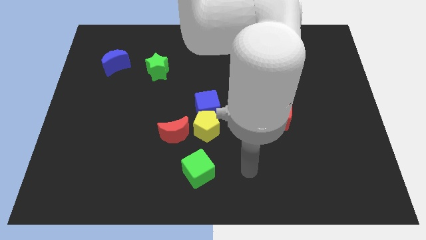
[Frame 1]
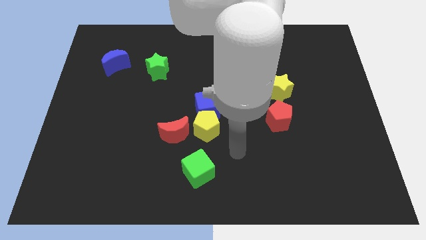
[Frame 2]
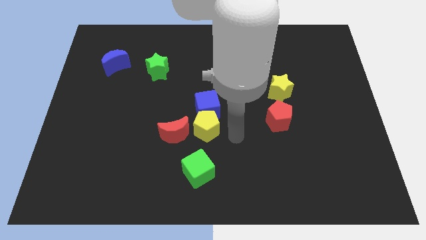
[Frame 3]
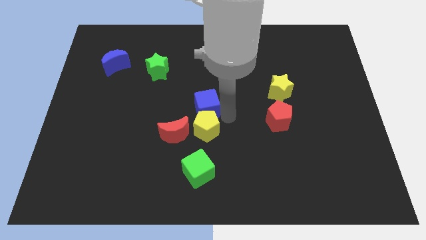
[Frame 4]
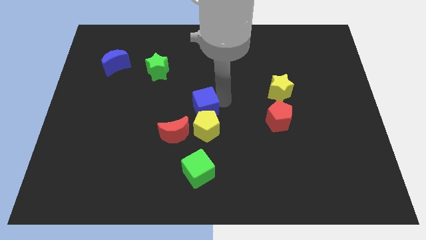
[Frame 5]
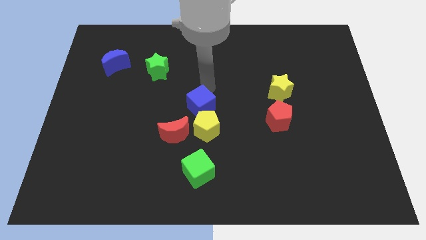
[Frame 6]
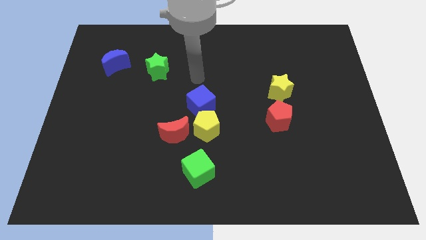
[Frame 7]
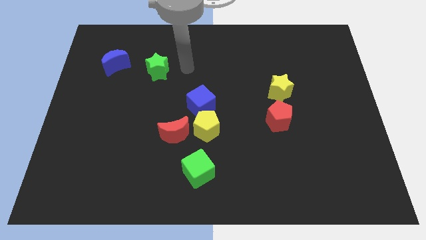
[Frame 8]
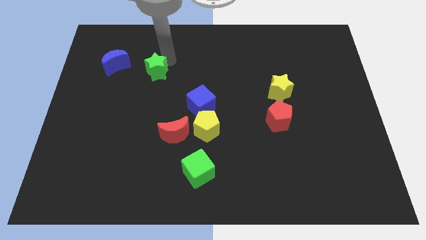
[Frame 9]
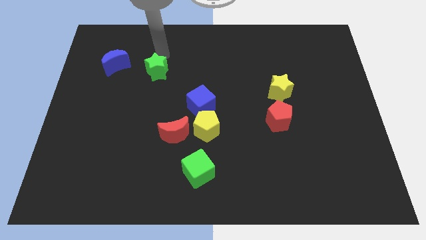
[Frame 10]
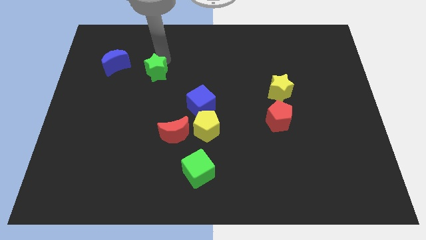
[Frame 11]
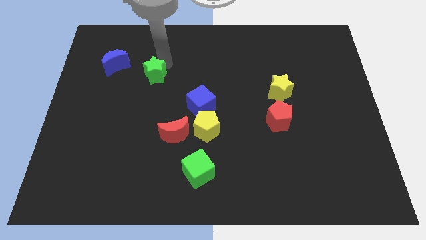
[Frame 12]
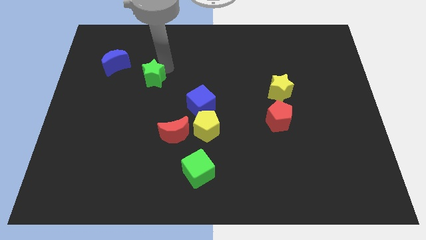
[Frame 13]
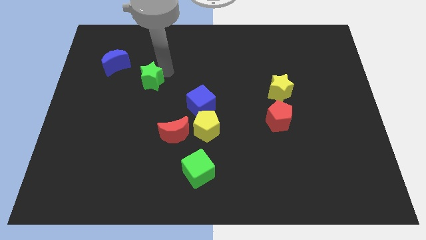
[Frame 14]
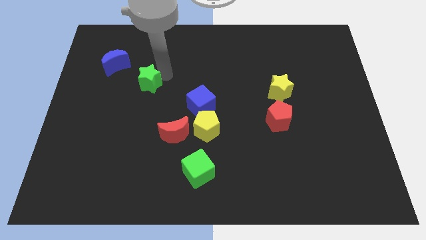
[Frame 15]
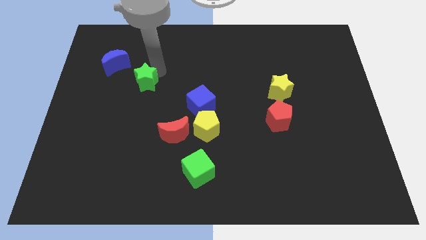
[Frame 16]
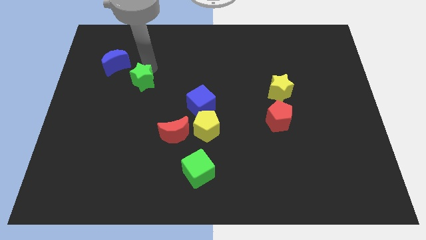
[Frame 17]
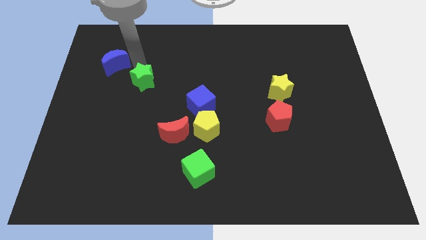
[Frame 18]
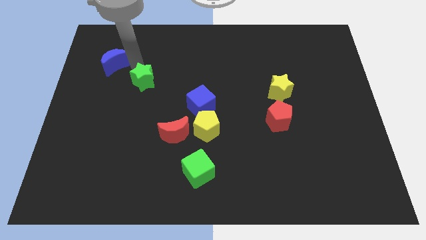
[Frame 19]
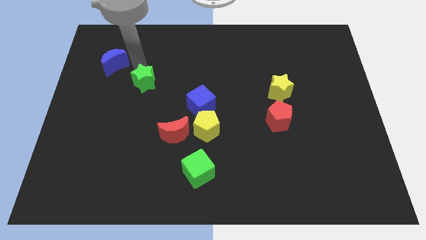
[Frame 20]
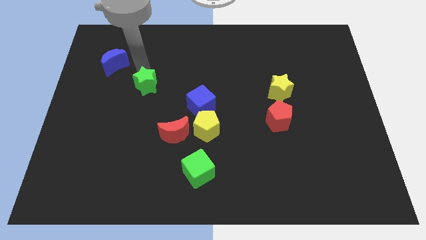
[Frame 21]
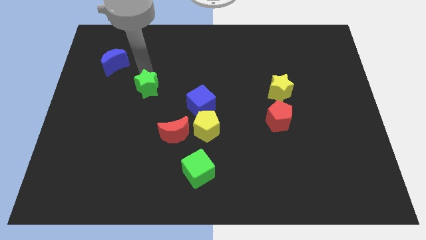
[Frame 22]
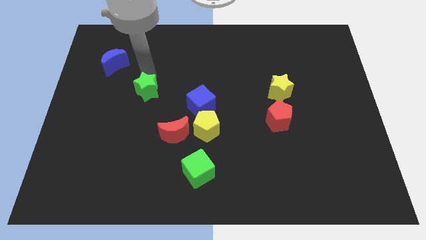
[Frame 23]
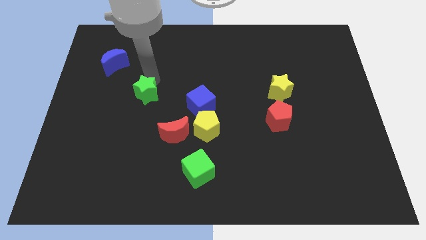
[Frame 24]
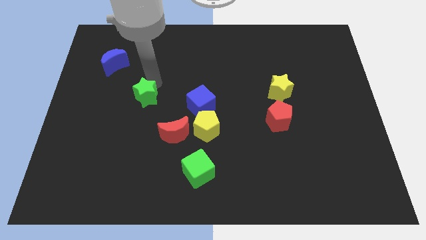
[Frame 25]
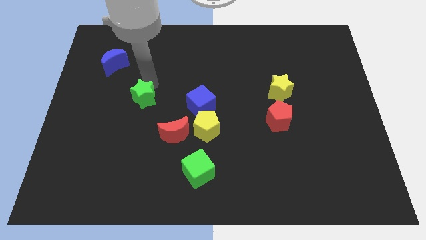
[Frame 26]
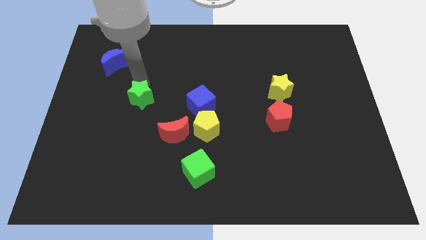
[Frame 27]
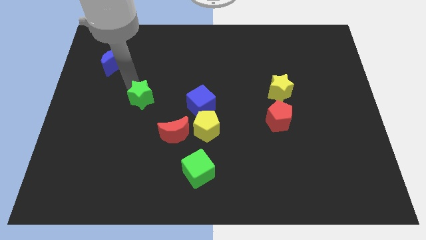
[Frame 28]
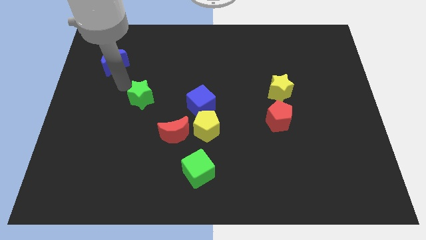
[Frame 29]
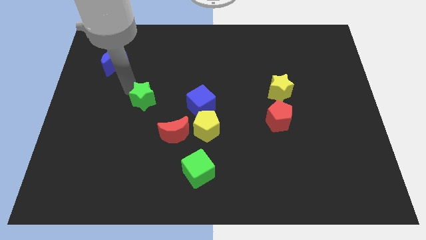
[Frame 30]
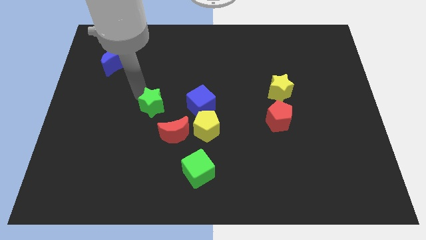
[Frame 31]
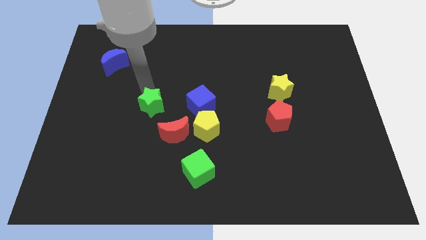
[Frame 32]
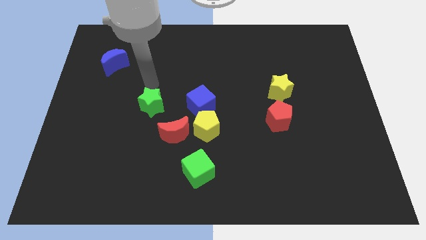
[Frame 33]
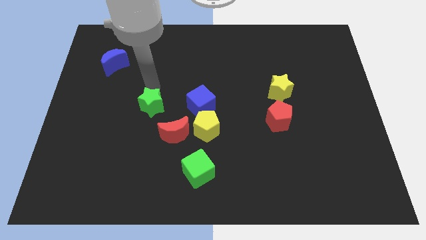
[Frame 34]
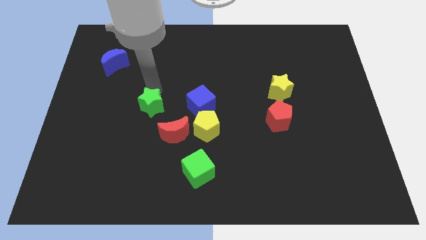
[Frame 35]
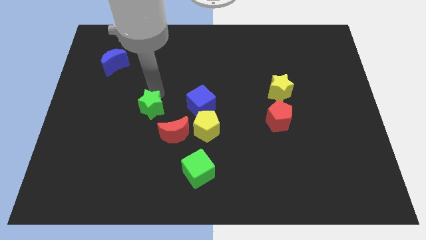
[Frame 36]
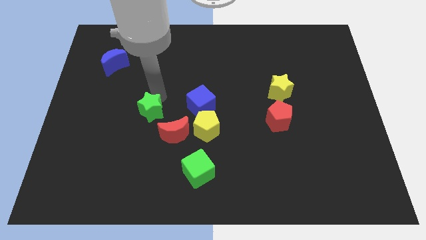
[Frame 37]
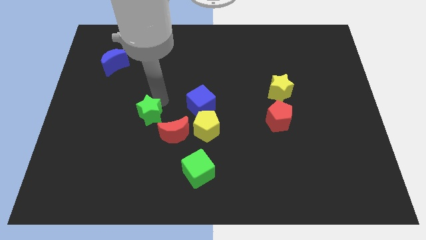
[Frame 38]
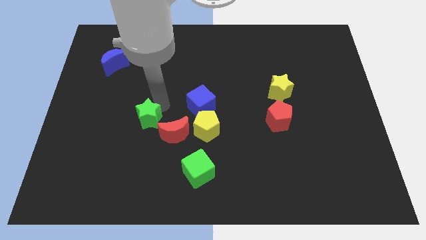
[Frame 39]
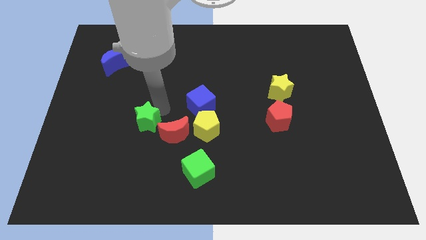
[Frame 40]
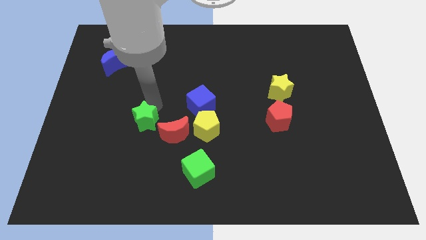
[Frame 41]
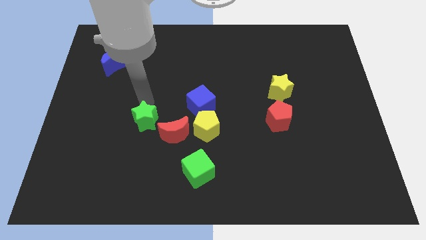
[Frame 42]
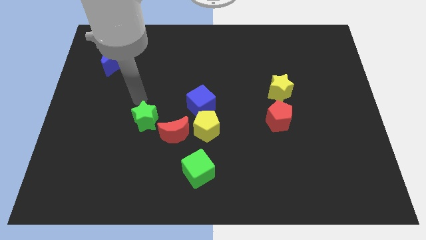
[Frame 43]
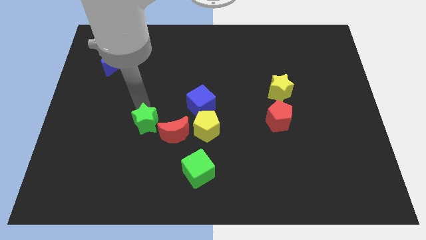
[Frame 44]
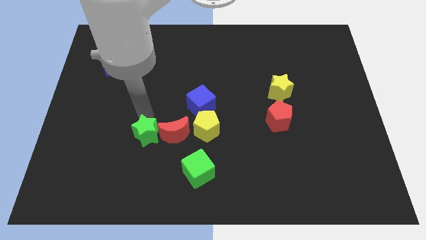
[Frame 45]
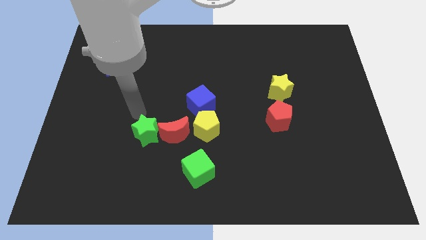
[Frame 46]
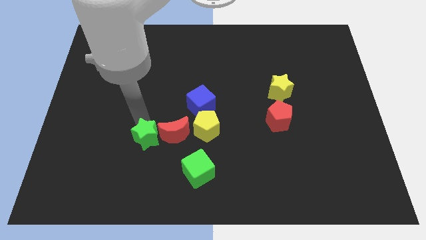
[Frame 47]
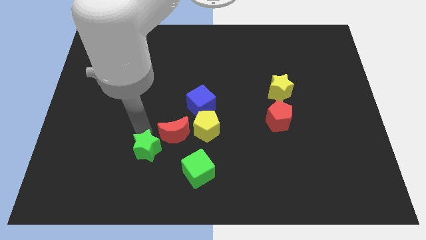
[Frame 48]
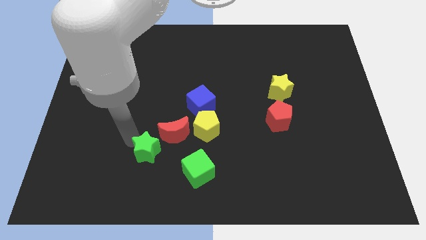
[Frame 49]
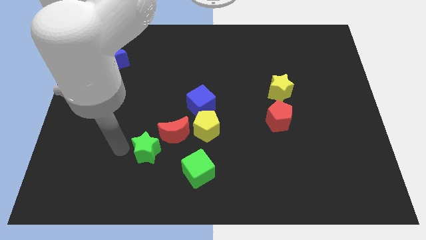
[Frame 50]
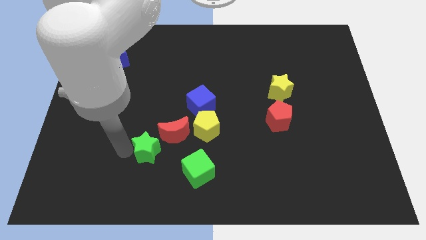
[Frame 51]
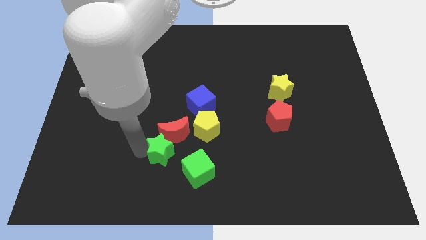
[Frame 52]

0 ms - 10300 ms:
put the green star to the bottom left side of the yellow pentagon

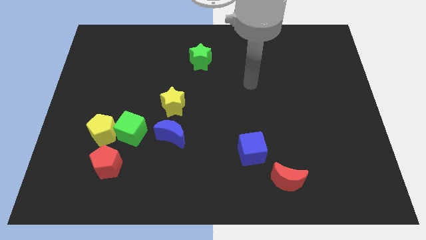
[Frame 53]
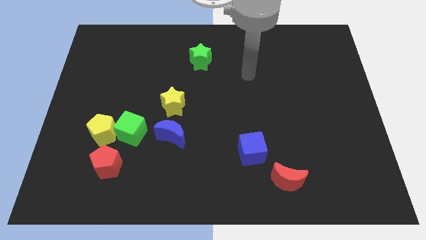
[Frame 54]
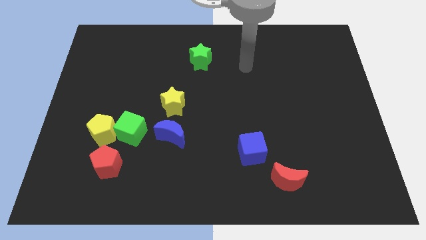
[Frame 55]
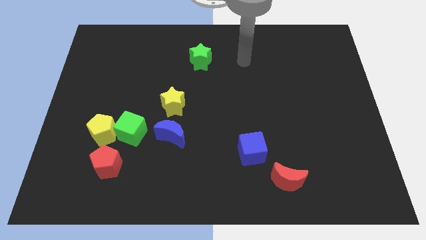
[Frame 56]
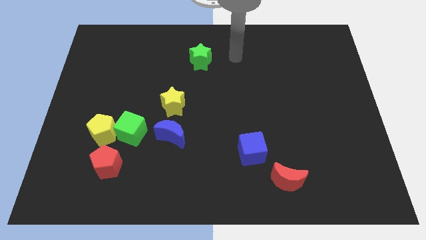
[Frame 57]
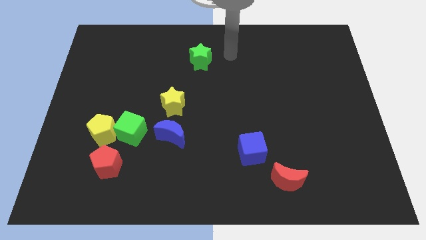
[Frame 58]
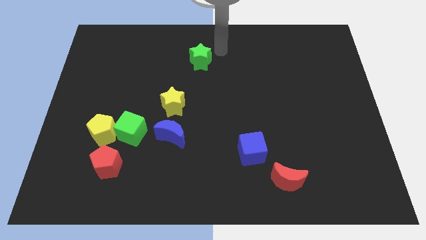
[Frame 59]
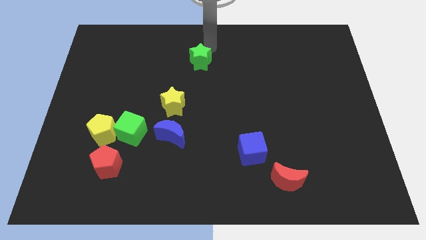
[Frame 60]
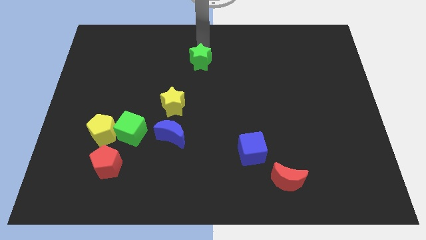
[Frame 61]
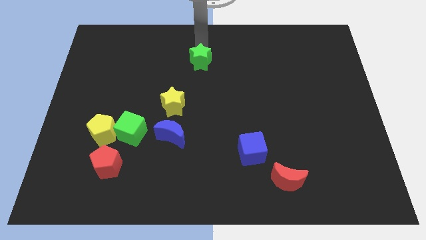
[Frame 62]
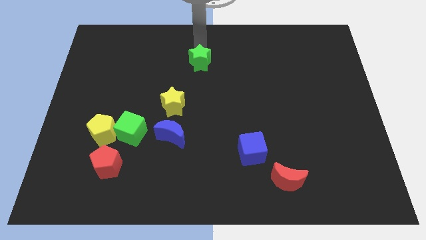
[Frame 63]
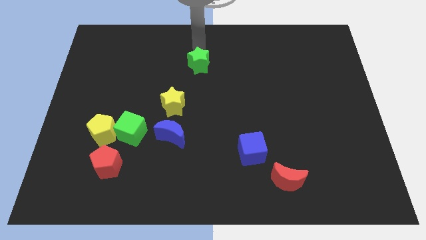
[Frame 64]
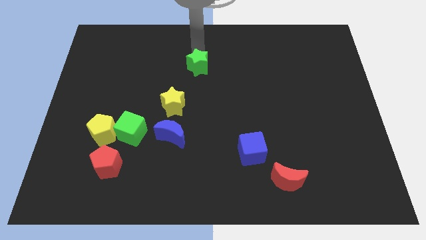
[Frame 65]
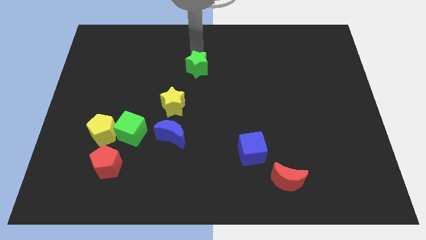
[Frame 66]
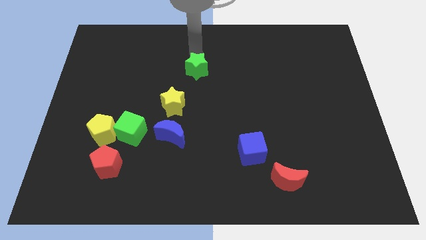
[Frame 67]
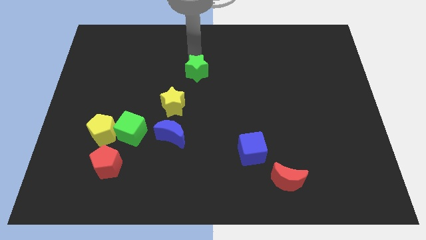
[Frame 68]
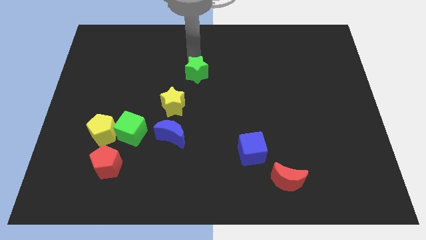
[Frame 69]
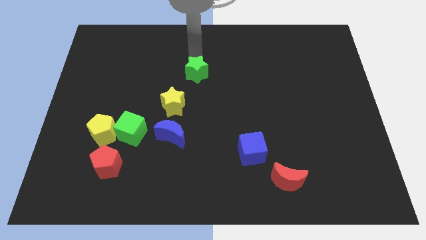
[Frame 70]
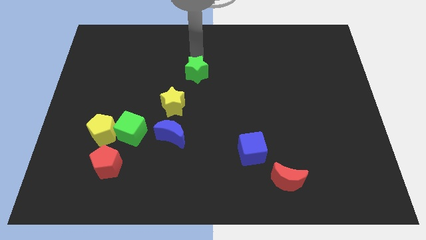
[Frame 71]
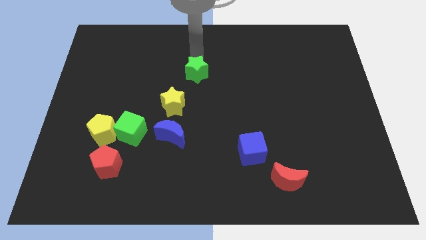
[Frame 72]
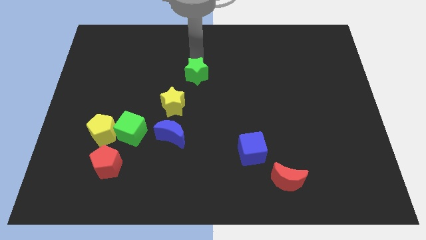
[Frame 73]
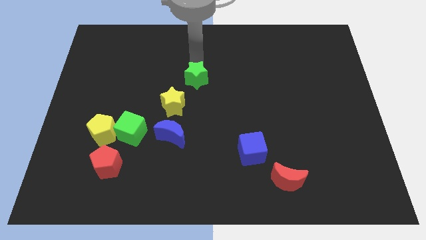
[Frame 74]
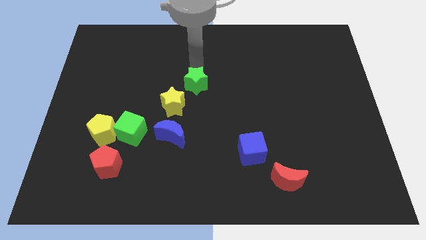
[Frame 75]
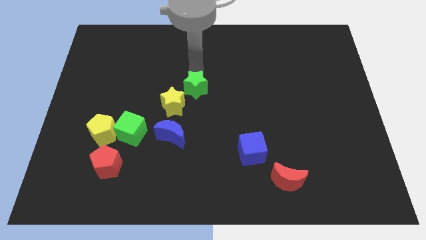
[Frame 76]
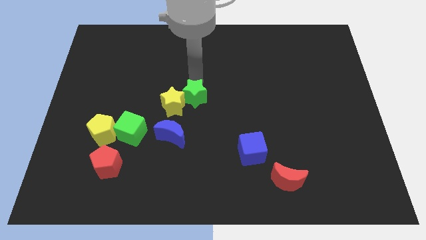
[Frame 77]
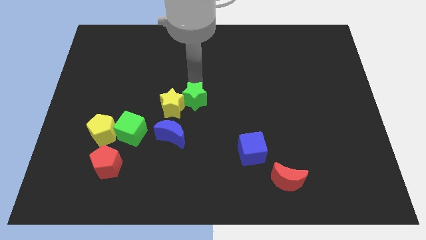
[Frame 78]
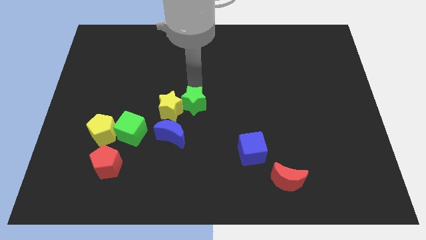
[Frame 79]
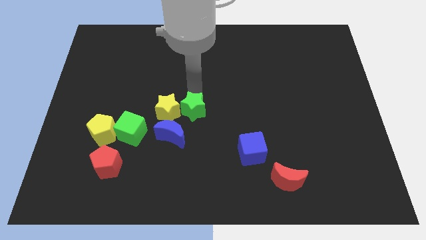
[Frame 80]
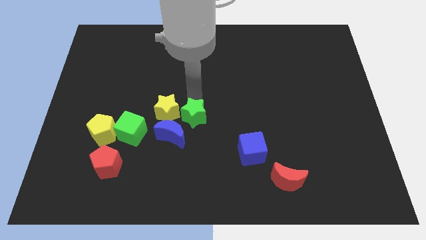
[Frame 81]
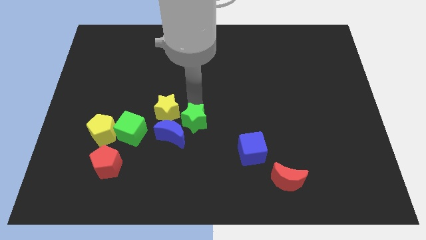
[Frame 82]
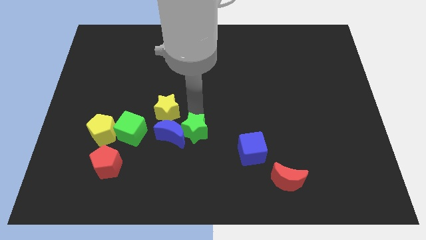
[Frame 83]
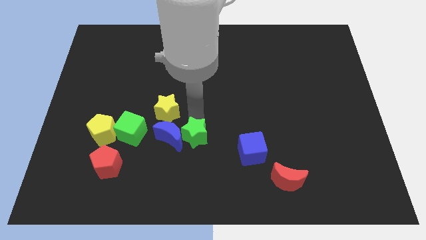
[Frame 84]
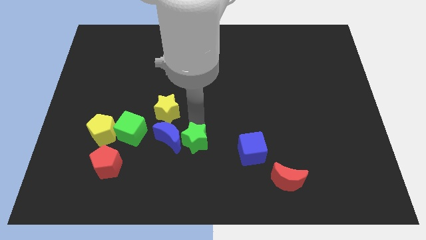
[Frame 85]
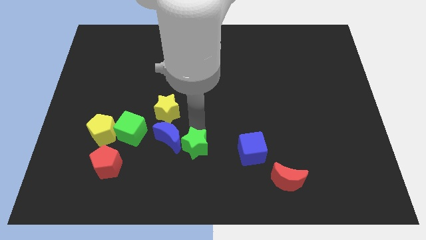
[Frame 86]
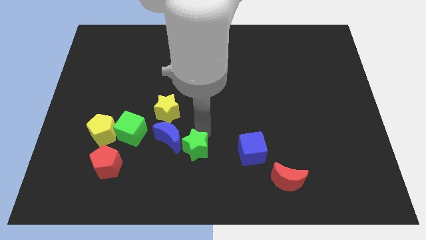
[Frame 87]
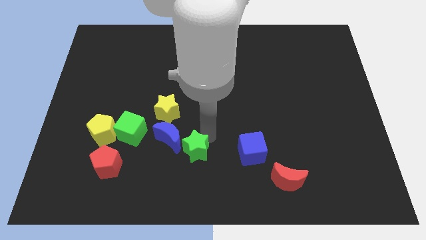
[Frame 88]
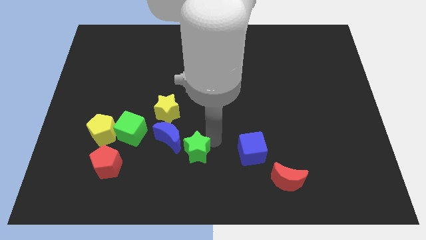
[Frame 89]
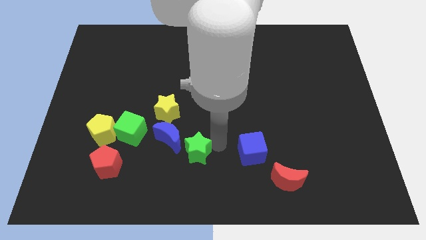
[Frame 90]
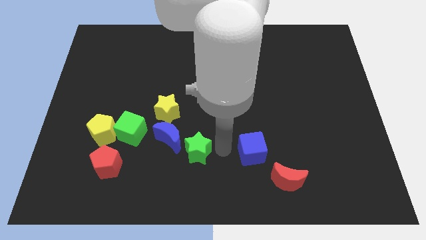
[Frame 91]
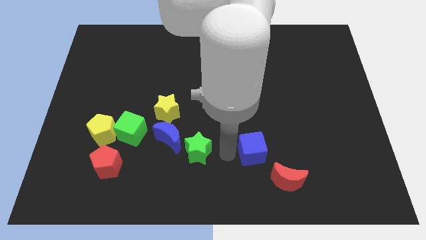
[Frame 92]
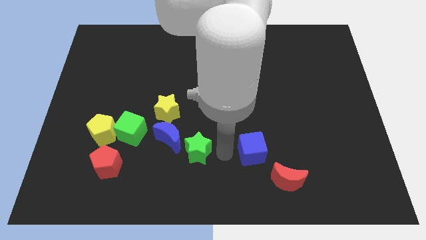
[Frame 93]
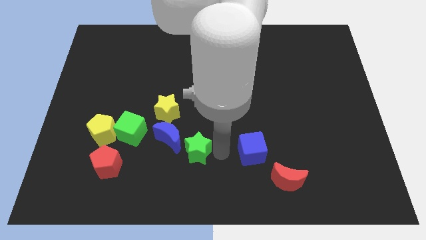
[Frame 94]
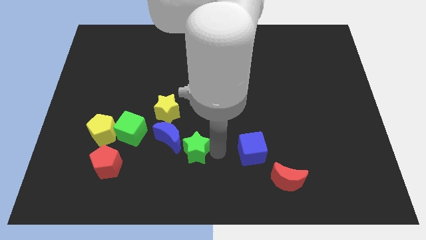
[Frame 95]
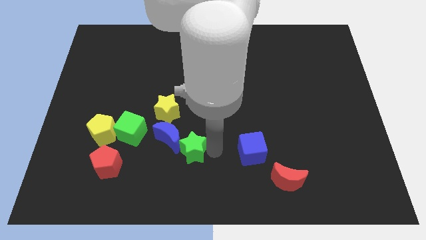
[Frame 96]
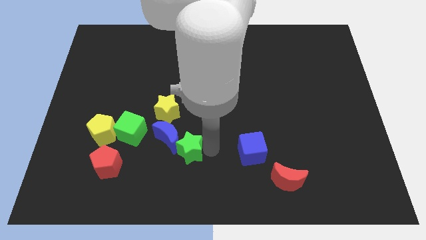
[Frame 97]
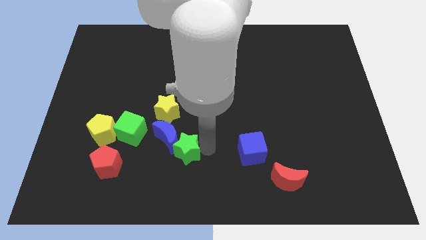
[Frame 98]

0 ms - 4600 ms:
put the green star below the yellow star
